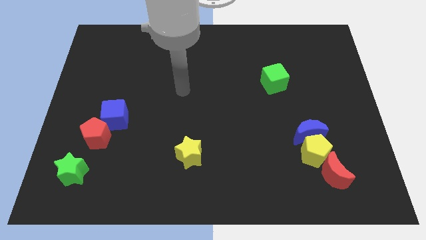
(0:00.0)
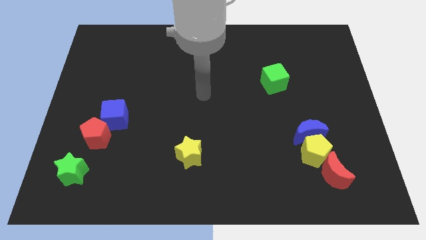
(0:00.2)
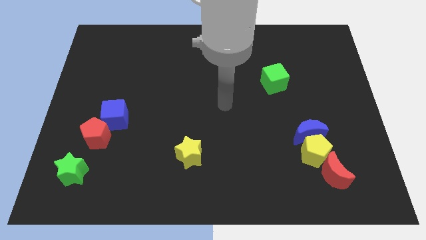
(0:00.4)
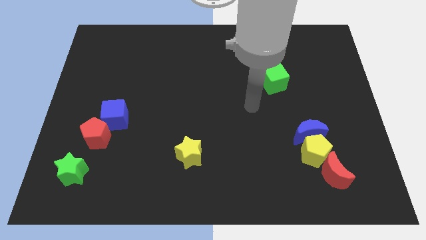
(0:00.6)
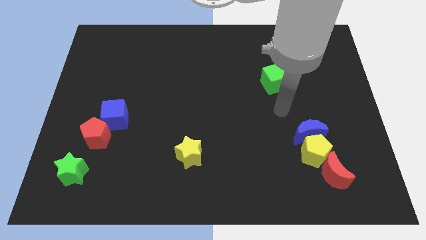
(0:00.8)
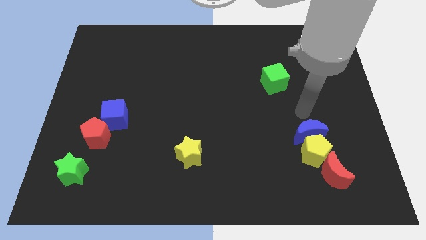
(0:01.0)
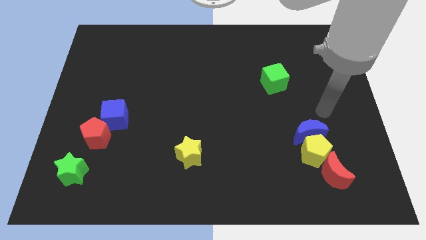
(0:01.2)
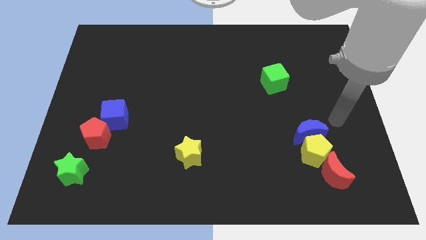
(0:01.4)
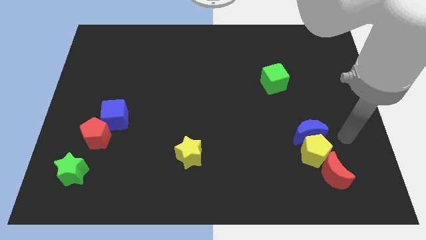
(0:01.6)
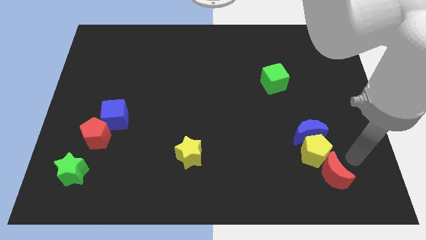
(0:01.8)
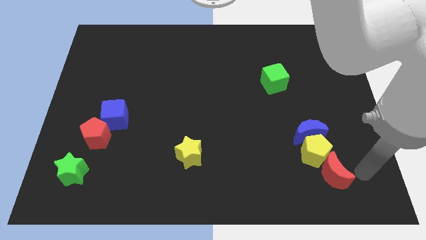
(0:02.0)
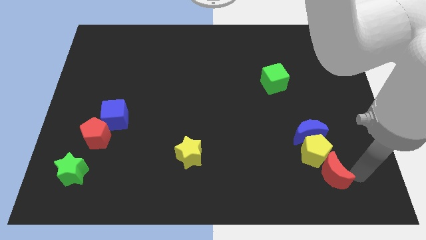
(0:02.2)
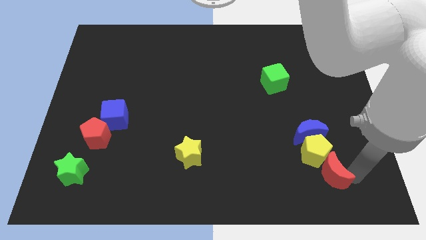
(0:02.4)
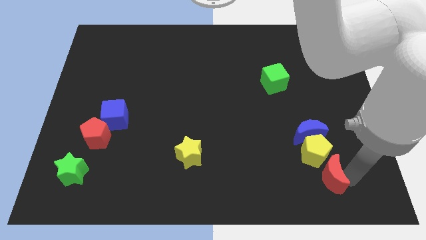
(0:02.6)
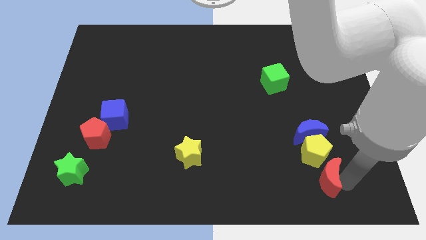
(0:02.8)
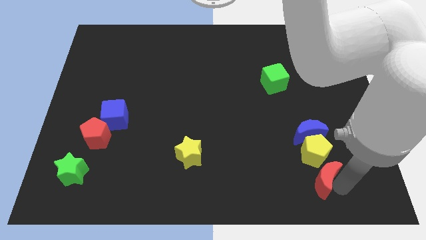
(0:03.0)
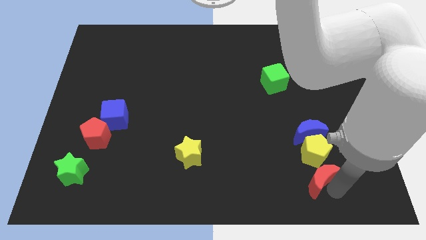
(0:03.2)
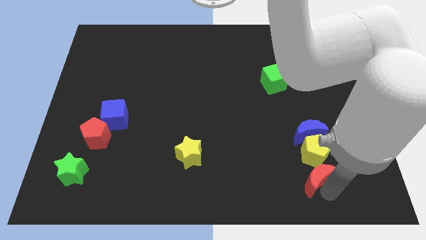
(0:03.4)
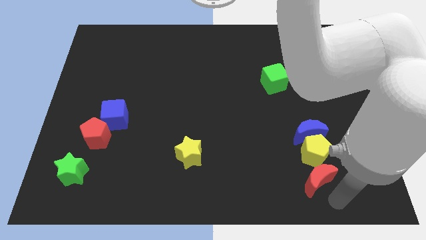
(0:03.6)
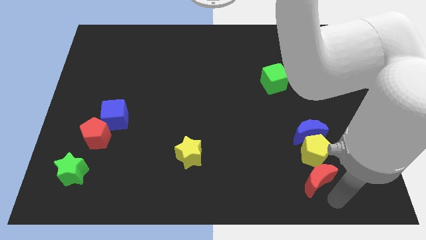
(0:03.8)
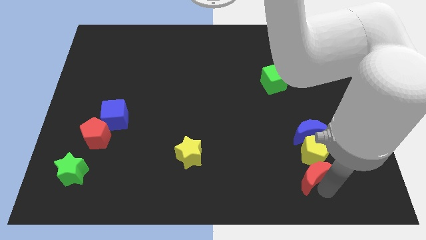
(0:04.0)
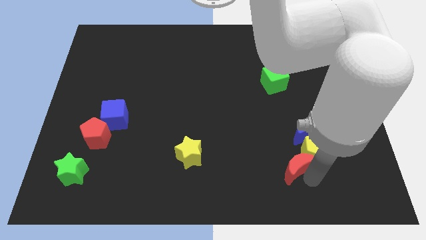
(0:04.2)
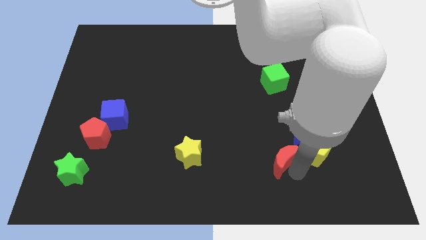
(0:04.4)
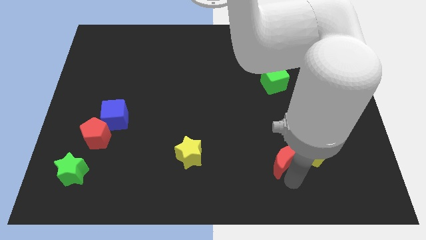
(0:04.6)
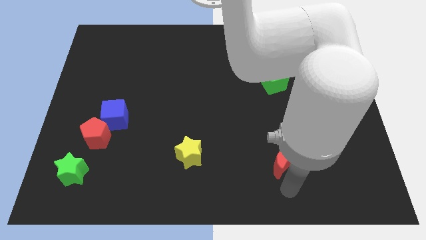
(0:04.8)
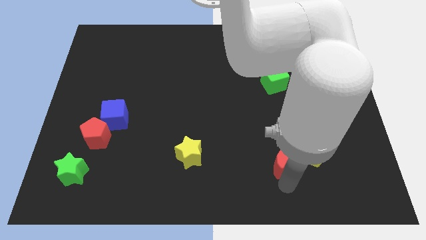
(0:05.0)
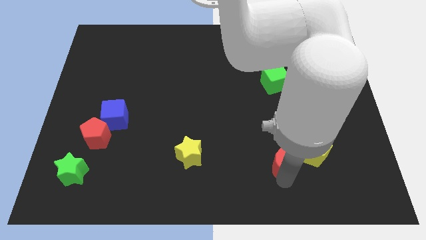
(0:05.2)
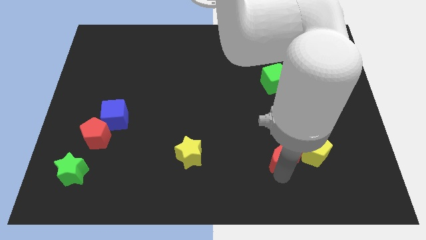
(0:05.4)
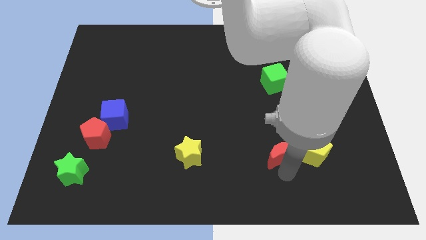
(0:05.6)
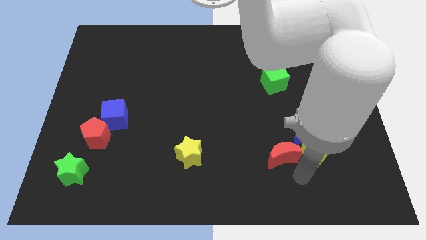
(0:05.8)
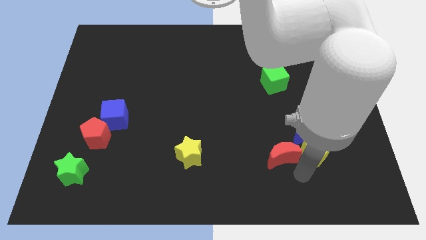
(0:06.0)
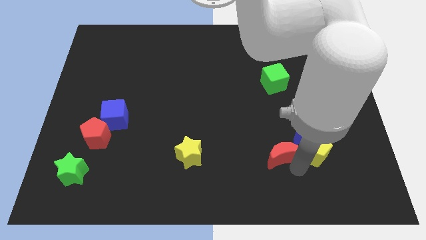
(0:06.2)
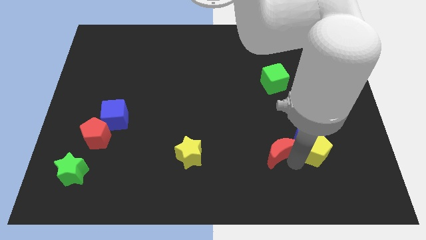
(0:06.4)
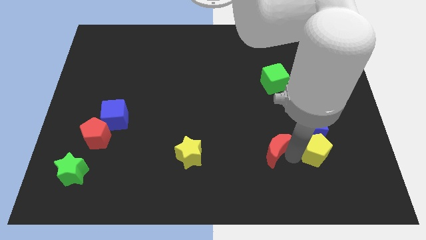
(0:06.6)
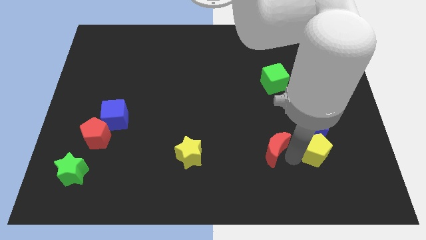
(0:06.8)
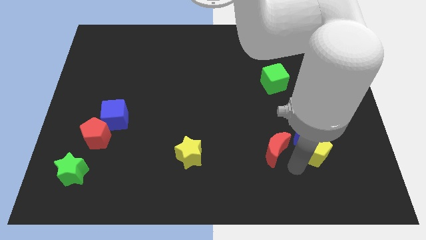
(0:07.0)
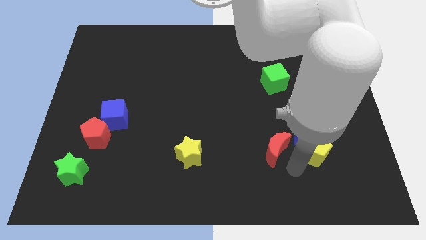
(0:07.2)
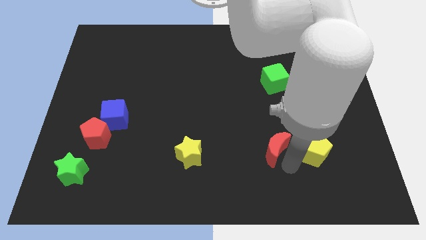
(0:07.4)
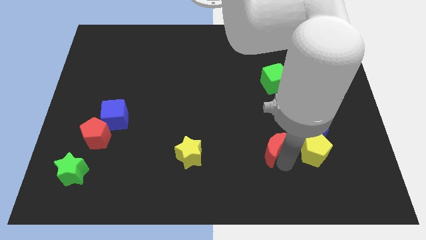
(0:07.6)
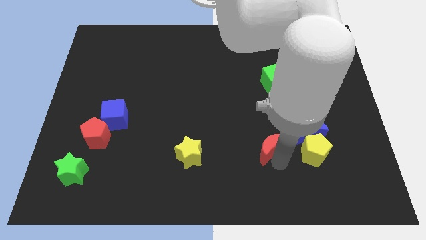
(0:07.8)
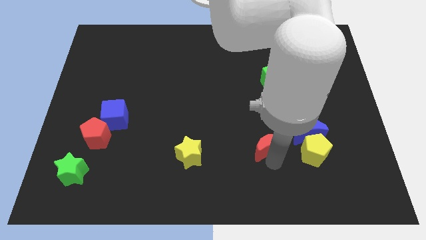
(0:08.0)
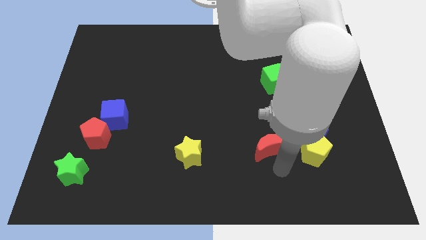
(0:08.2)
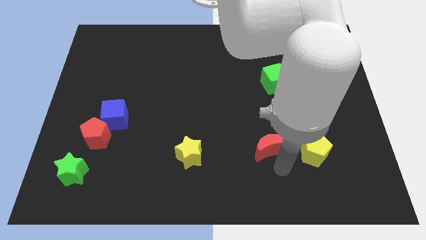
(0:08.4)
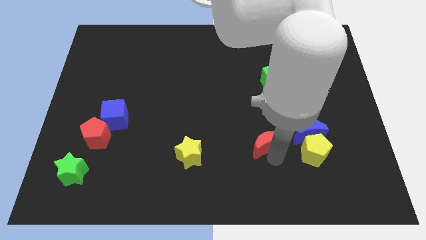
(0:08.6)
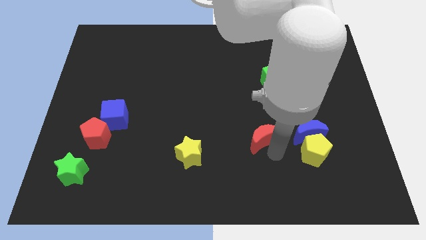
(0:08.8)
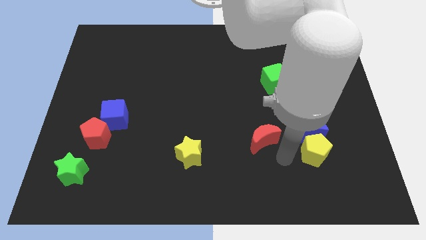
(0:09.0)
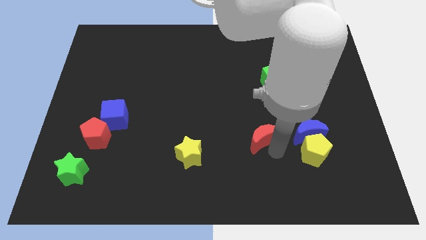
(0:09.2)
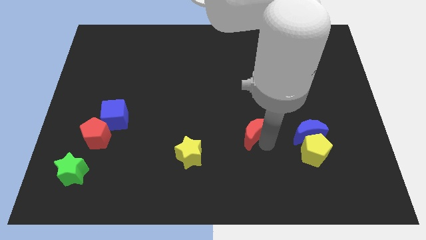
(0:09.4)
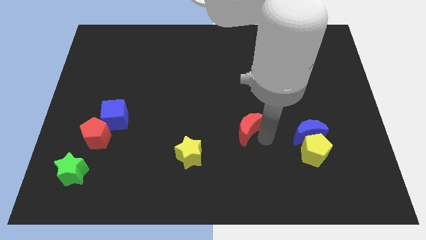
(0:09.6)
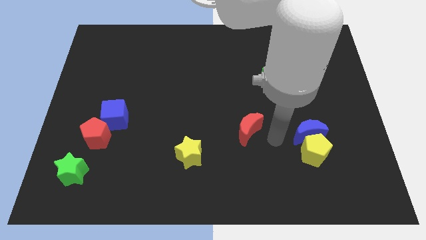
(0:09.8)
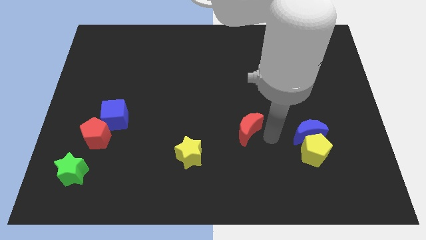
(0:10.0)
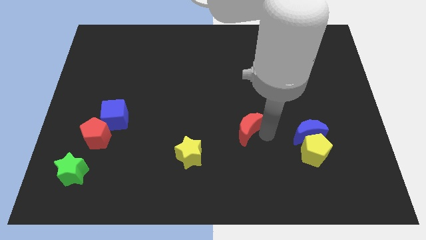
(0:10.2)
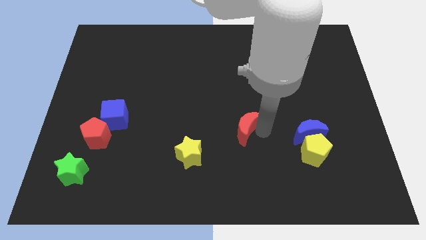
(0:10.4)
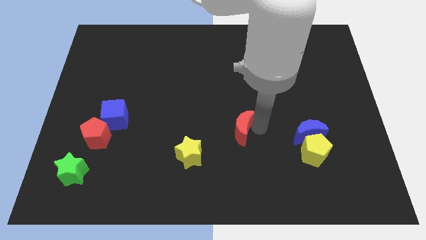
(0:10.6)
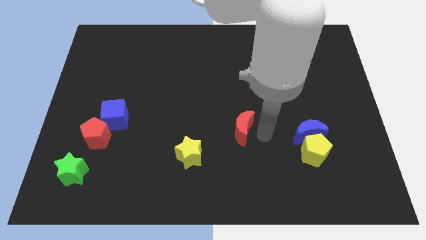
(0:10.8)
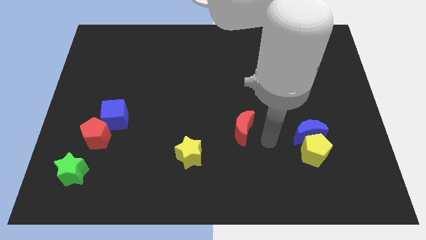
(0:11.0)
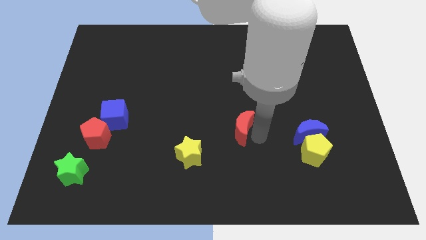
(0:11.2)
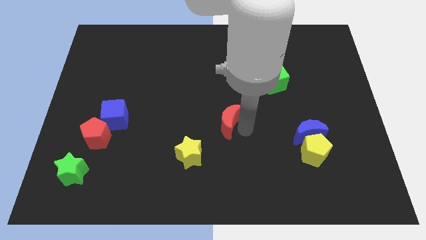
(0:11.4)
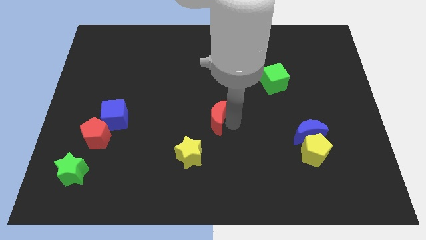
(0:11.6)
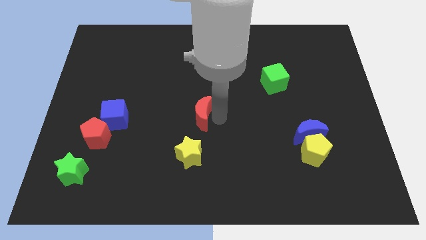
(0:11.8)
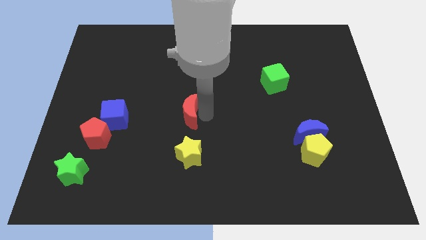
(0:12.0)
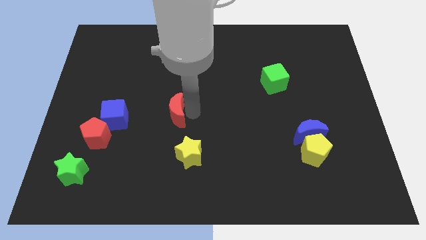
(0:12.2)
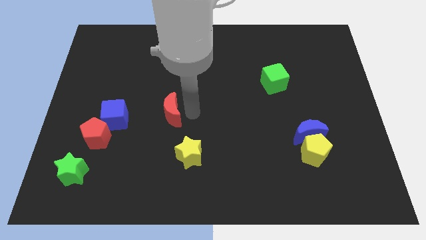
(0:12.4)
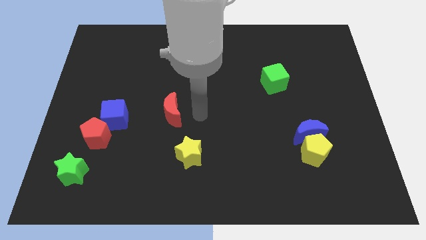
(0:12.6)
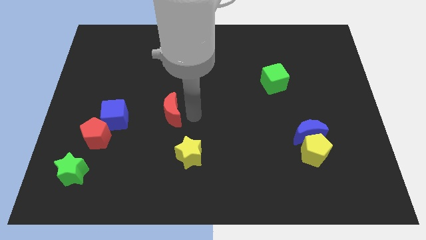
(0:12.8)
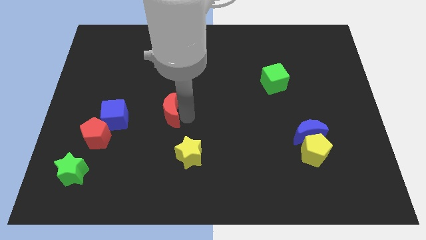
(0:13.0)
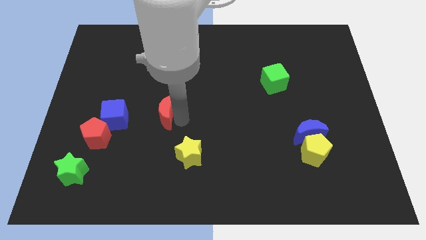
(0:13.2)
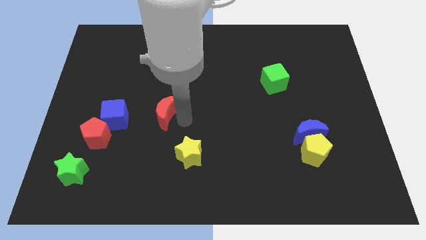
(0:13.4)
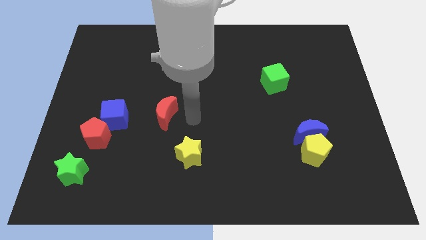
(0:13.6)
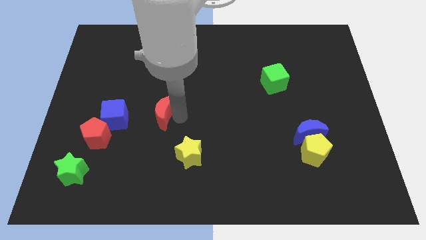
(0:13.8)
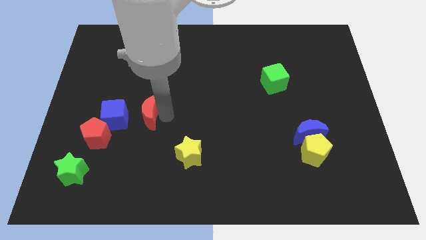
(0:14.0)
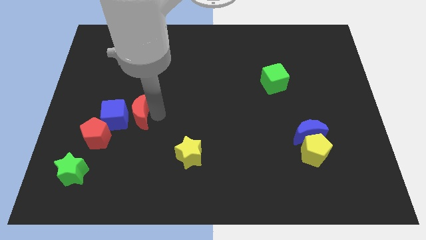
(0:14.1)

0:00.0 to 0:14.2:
slide the red moon to the blue cube

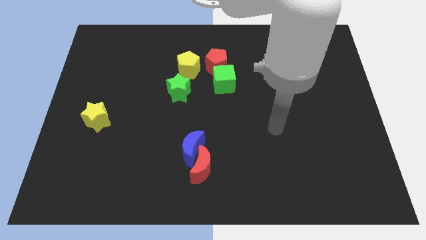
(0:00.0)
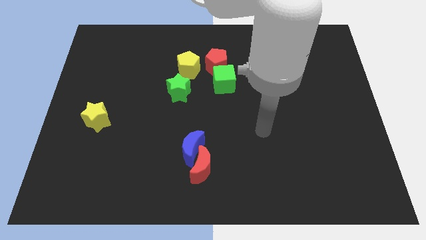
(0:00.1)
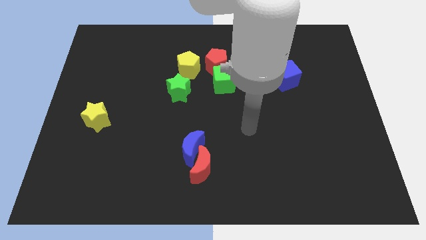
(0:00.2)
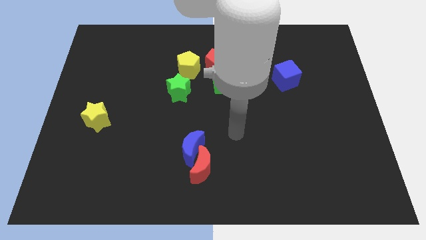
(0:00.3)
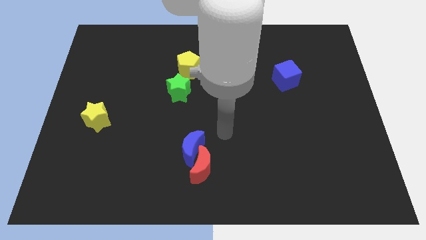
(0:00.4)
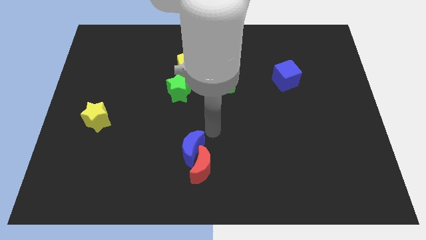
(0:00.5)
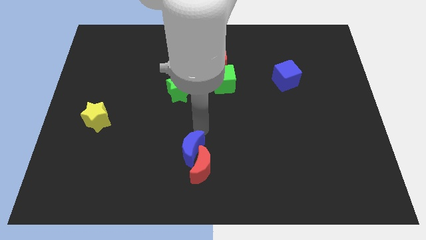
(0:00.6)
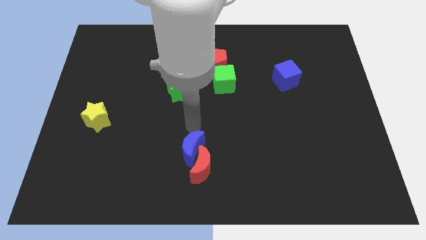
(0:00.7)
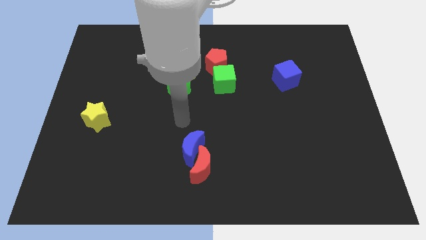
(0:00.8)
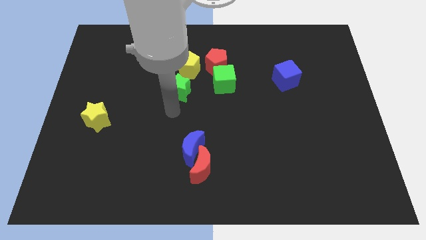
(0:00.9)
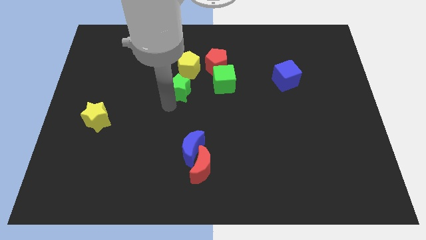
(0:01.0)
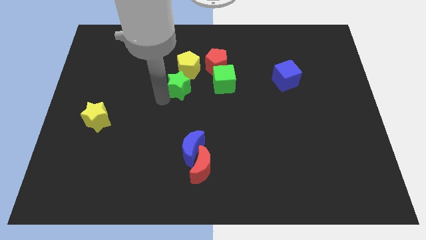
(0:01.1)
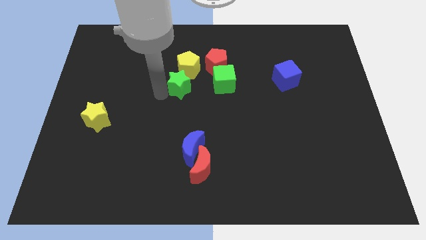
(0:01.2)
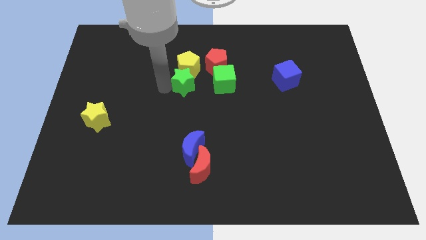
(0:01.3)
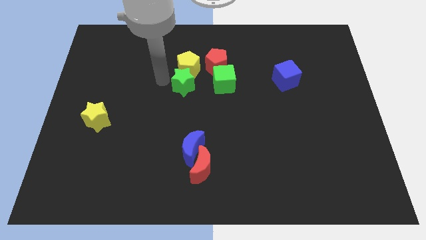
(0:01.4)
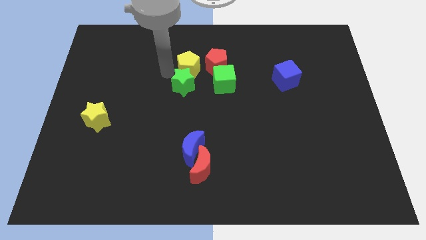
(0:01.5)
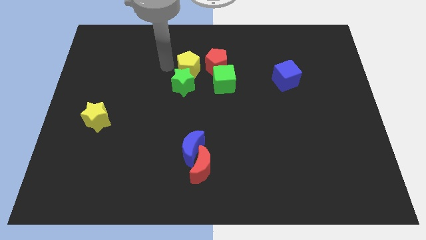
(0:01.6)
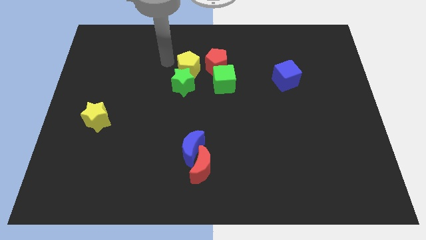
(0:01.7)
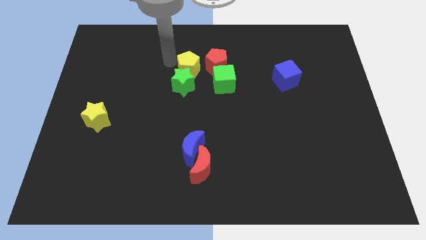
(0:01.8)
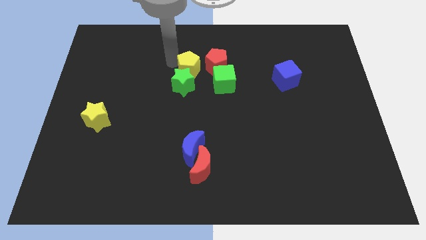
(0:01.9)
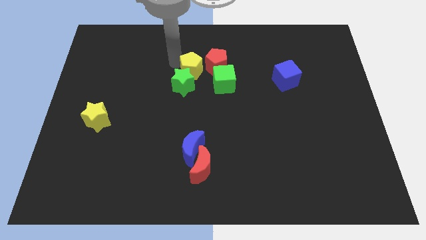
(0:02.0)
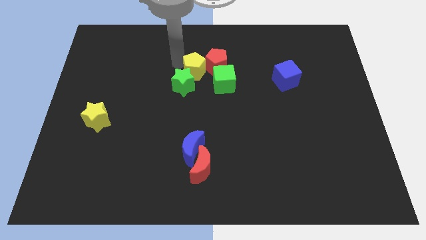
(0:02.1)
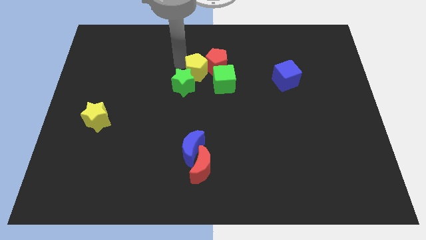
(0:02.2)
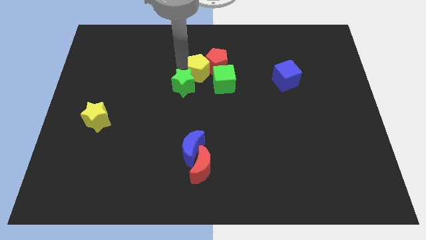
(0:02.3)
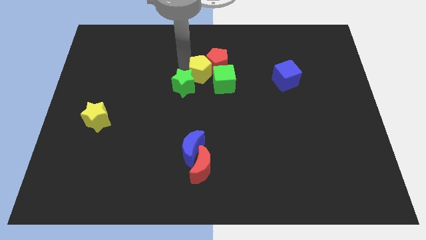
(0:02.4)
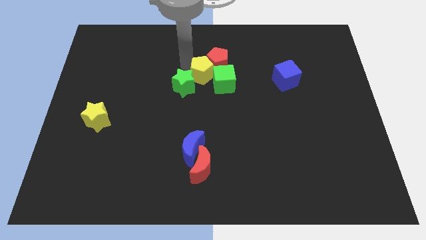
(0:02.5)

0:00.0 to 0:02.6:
push the yellow pentagon close to the green cube
